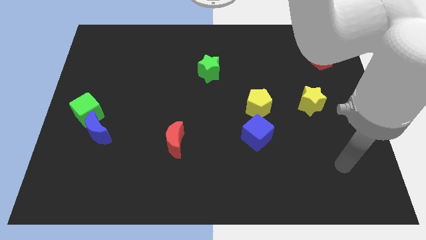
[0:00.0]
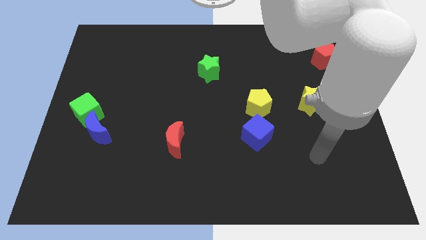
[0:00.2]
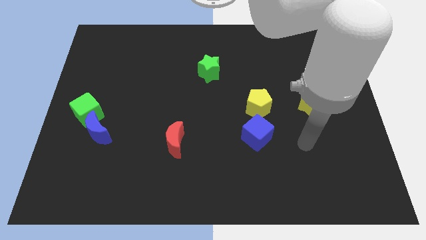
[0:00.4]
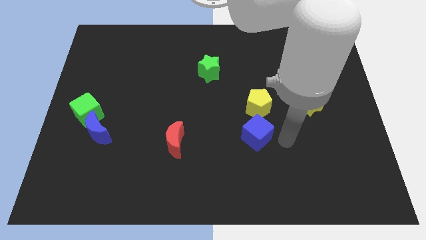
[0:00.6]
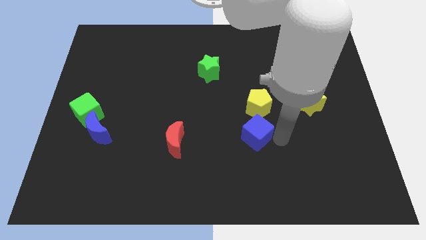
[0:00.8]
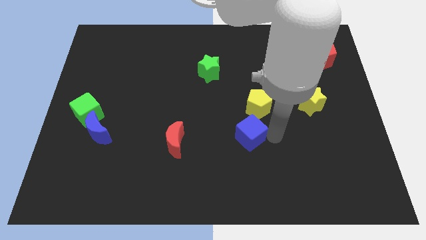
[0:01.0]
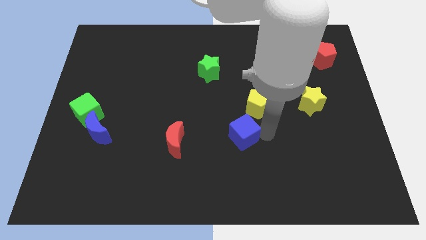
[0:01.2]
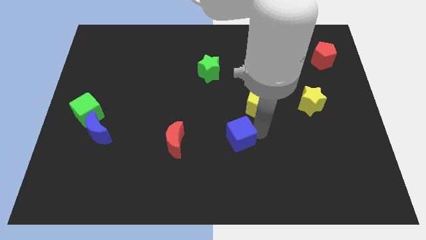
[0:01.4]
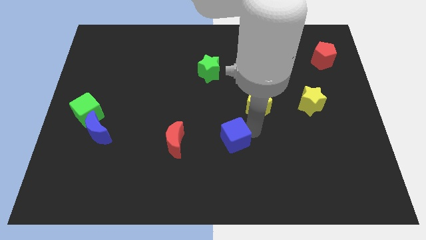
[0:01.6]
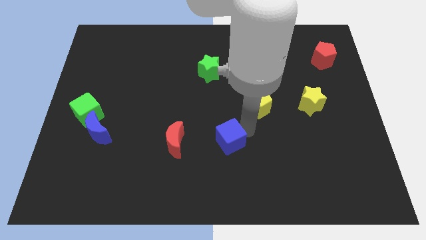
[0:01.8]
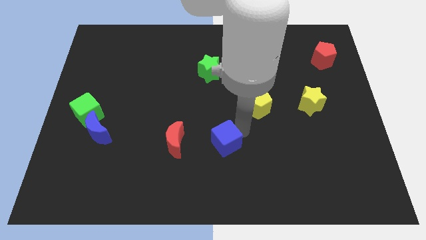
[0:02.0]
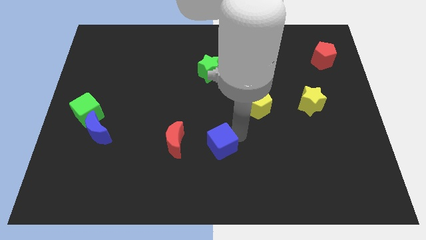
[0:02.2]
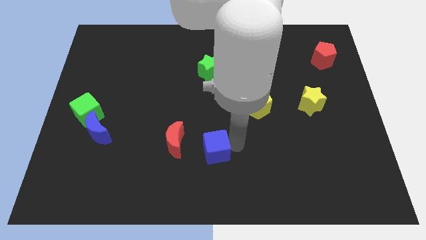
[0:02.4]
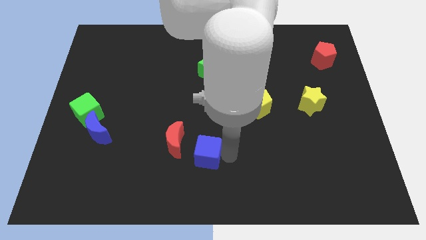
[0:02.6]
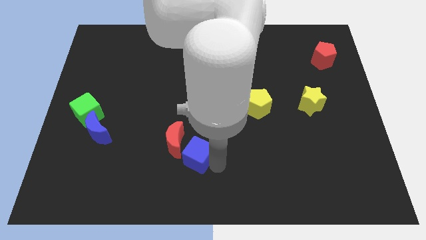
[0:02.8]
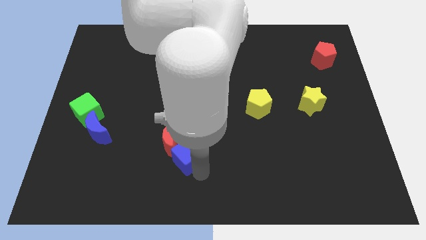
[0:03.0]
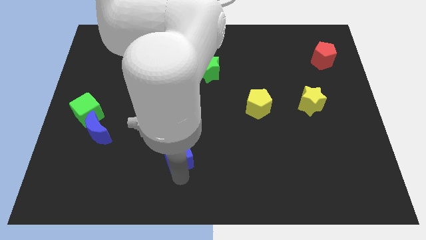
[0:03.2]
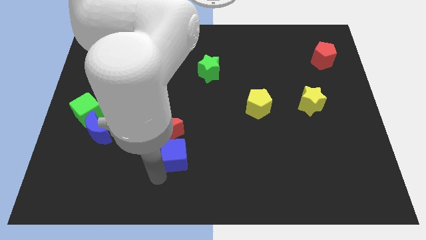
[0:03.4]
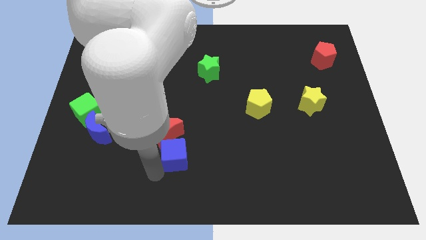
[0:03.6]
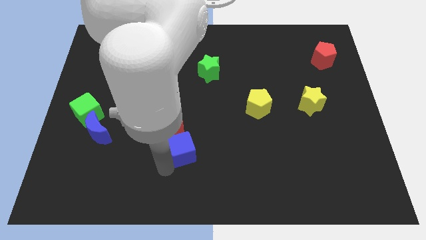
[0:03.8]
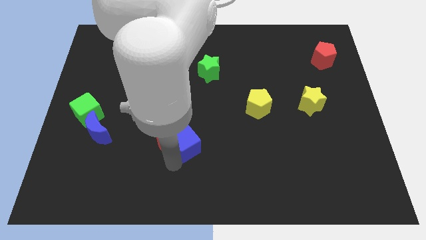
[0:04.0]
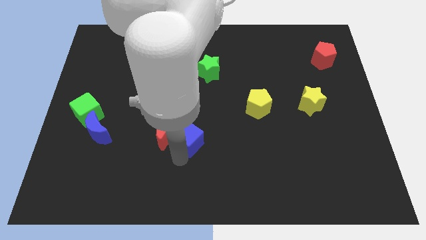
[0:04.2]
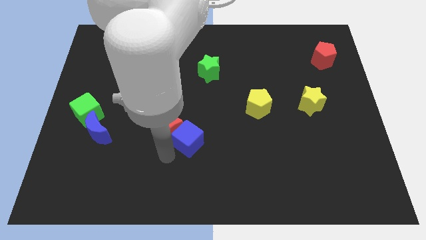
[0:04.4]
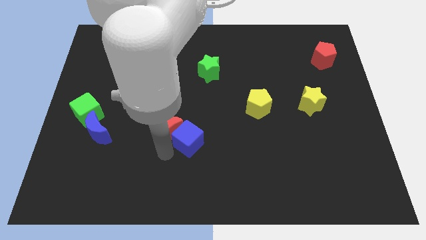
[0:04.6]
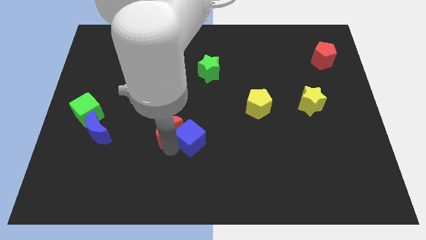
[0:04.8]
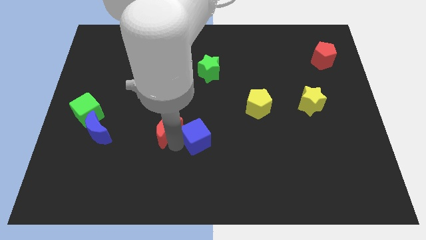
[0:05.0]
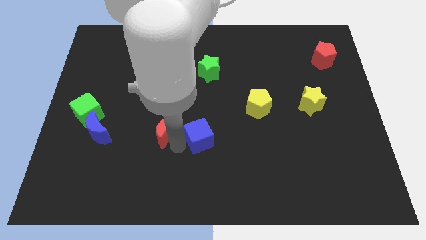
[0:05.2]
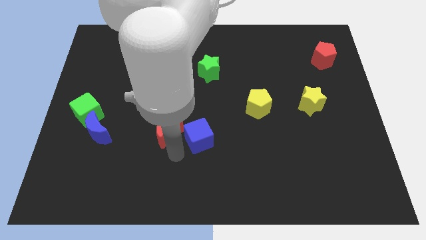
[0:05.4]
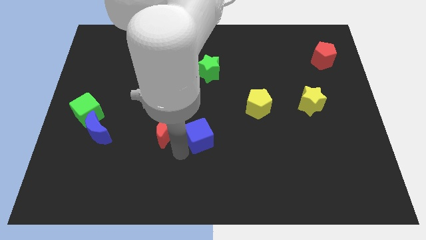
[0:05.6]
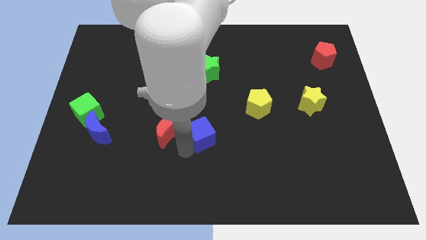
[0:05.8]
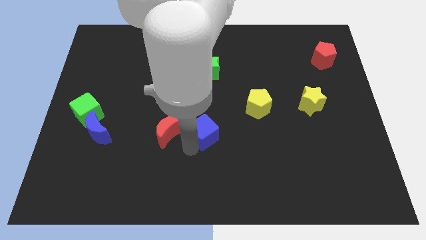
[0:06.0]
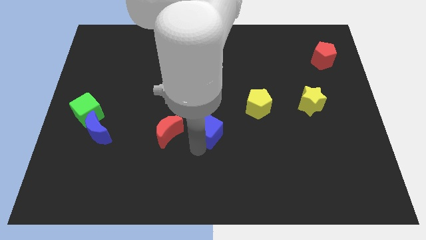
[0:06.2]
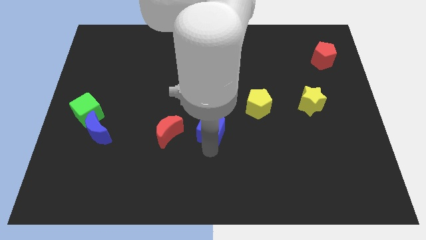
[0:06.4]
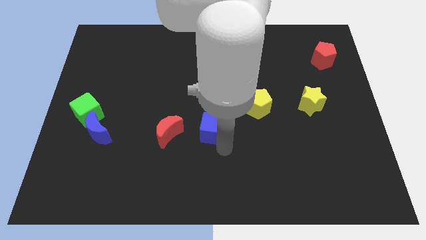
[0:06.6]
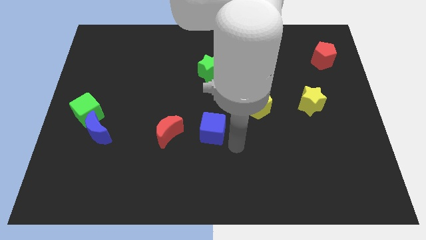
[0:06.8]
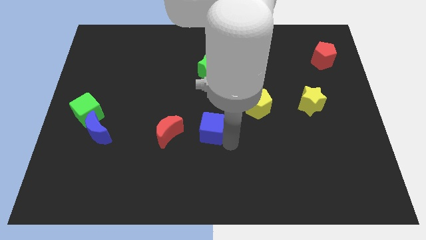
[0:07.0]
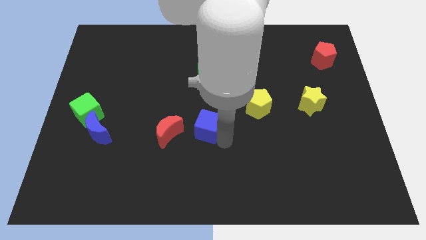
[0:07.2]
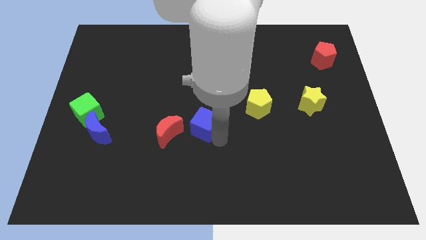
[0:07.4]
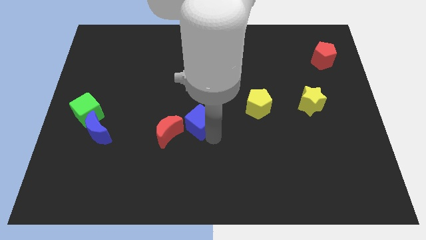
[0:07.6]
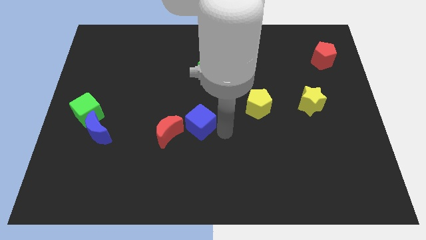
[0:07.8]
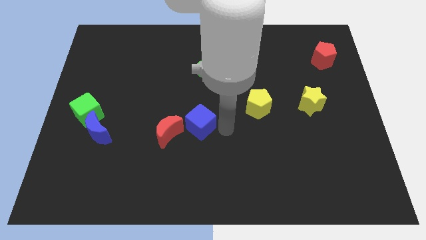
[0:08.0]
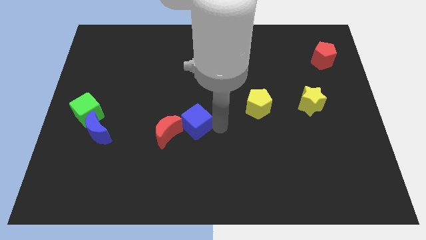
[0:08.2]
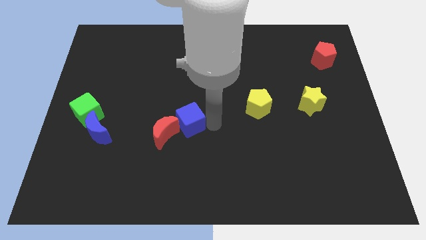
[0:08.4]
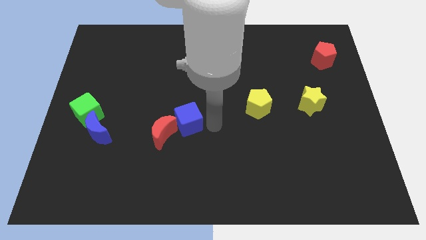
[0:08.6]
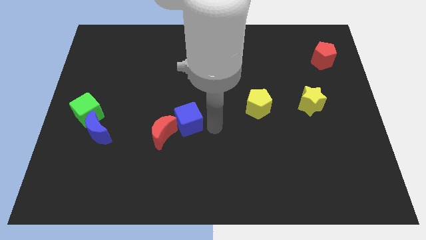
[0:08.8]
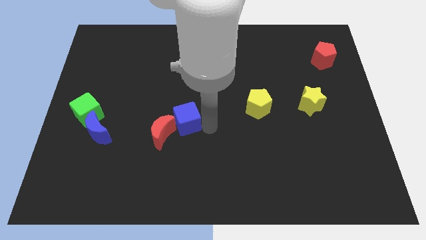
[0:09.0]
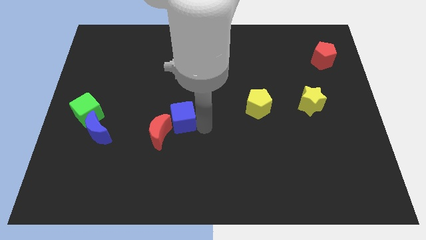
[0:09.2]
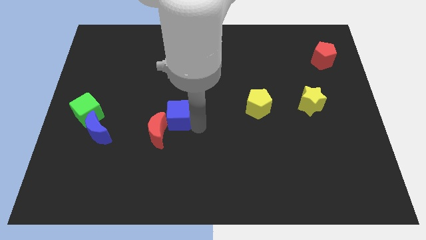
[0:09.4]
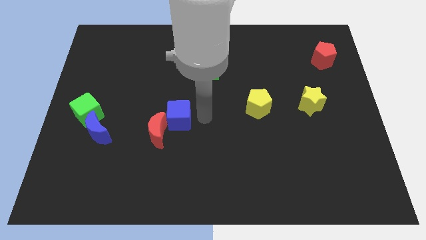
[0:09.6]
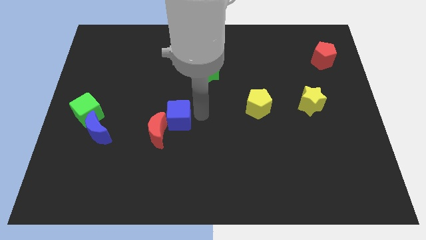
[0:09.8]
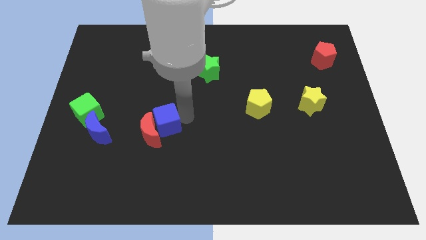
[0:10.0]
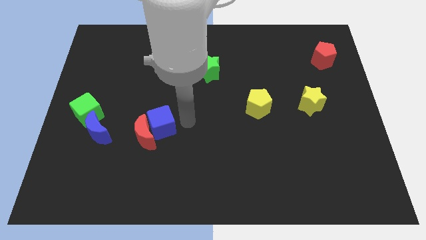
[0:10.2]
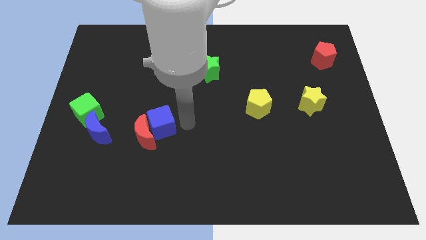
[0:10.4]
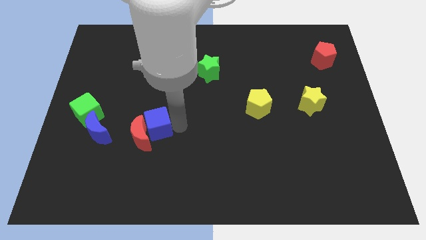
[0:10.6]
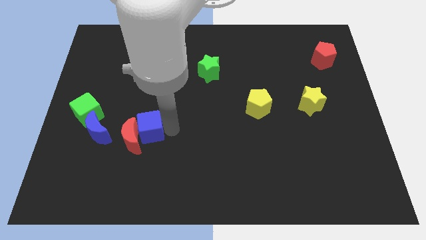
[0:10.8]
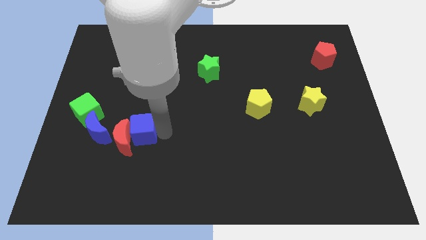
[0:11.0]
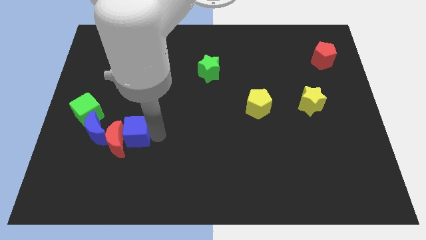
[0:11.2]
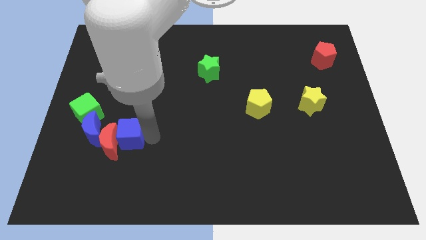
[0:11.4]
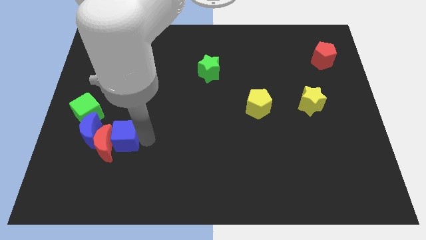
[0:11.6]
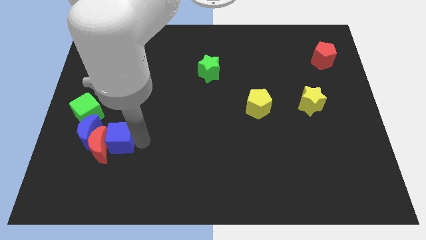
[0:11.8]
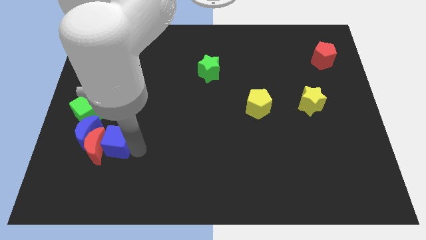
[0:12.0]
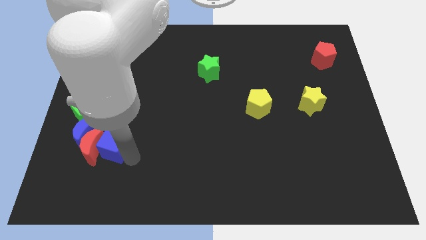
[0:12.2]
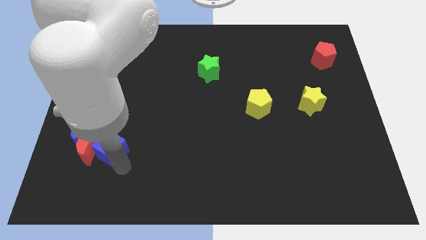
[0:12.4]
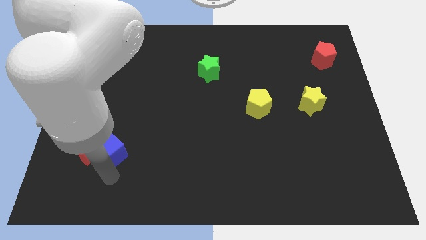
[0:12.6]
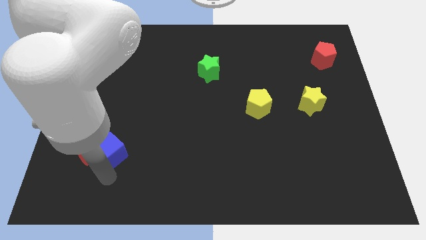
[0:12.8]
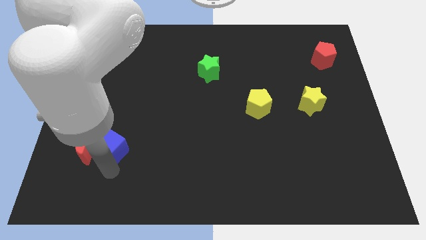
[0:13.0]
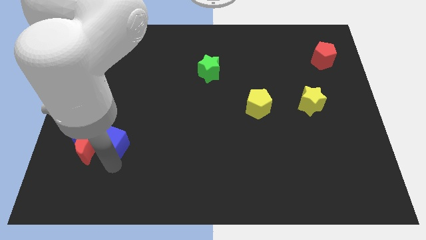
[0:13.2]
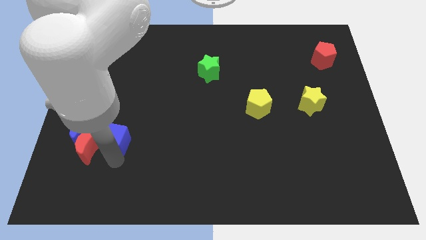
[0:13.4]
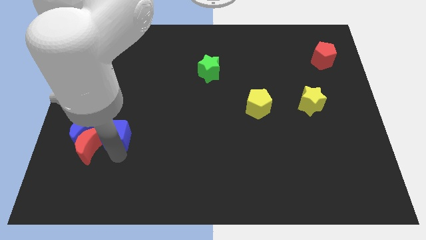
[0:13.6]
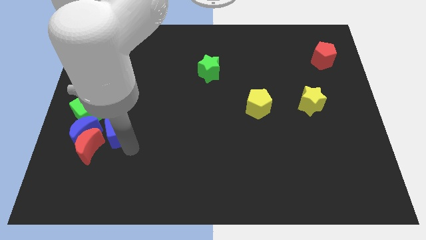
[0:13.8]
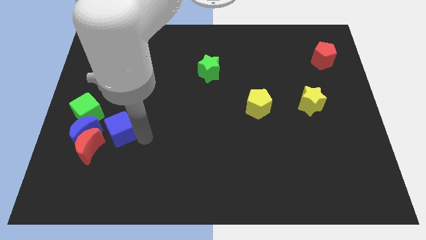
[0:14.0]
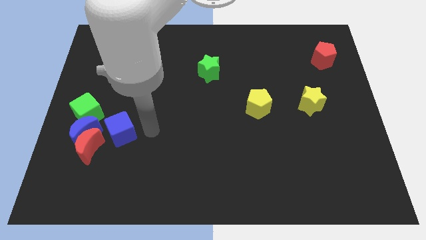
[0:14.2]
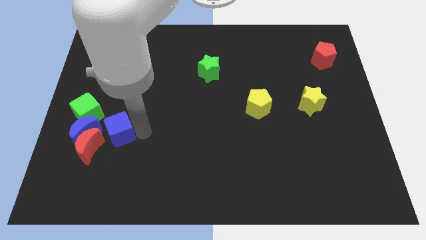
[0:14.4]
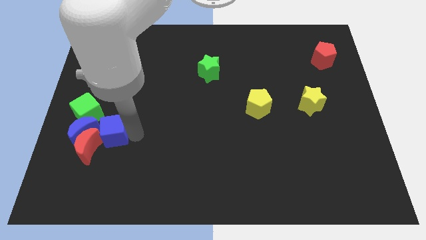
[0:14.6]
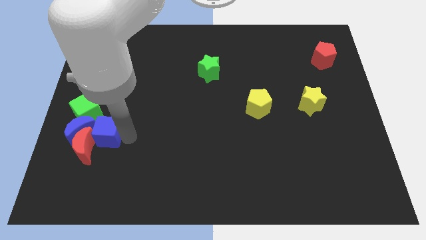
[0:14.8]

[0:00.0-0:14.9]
push the blue cube close to the blue moon
